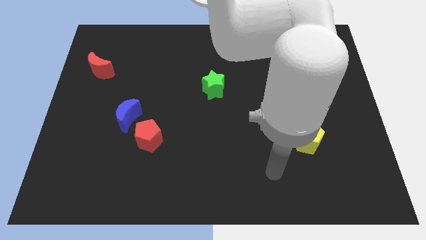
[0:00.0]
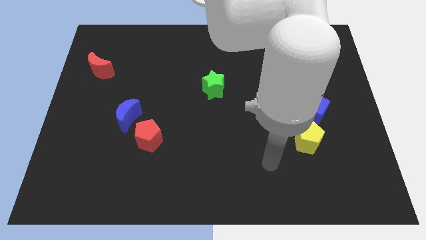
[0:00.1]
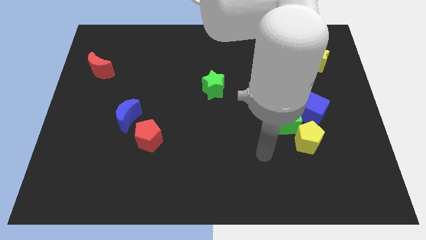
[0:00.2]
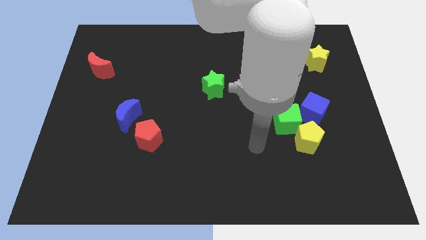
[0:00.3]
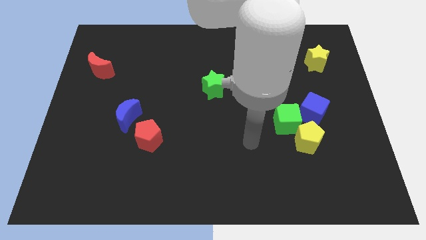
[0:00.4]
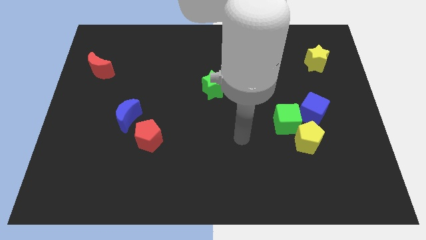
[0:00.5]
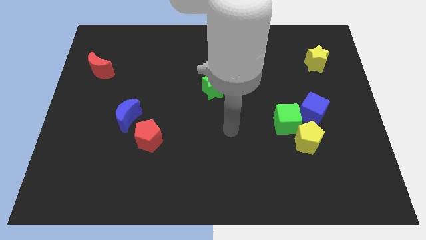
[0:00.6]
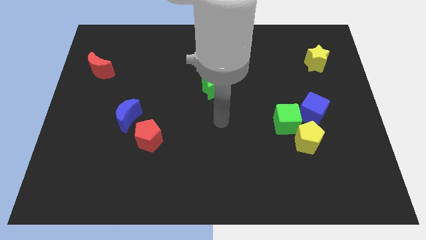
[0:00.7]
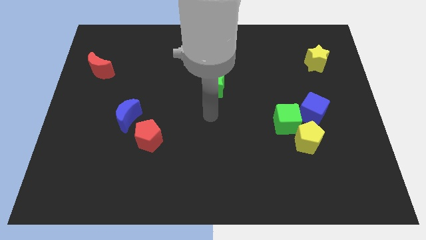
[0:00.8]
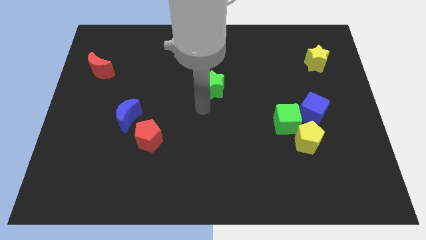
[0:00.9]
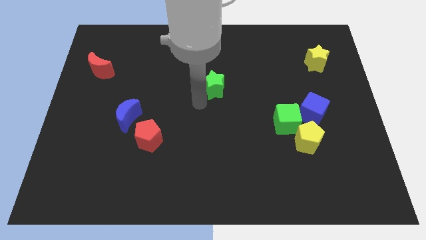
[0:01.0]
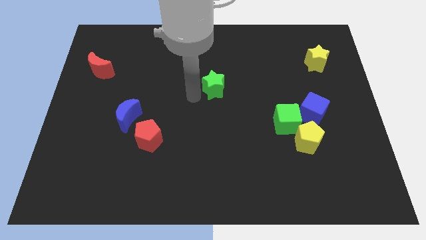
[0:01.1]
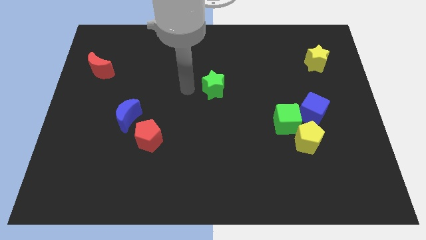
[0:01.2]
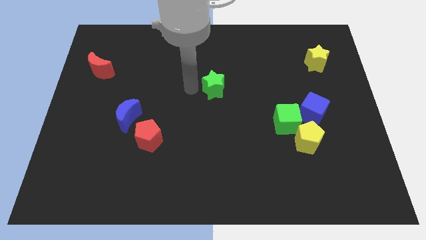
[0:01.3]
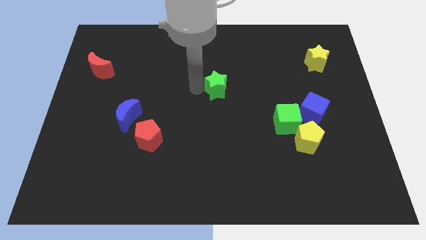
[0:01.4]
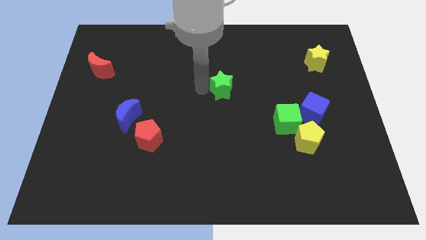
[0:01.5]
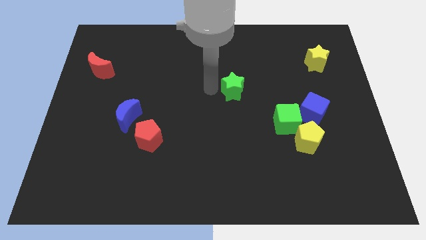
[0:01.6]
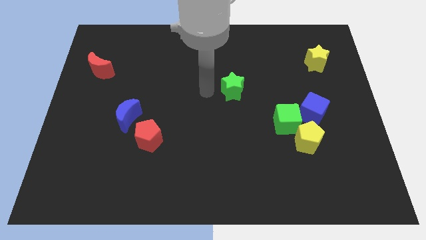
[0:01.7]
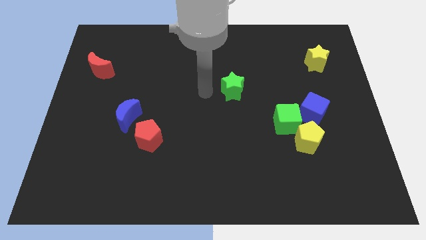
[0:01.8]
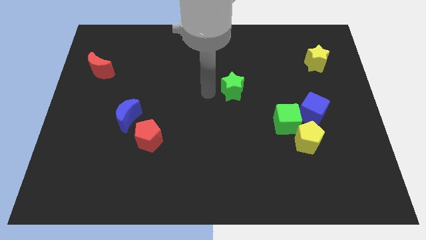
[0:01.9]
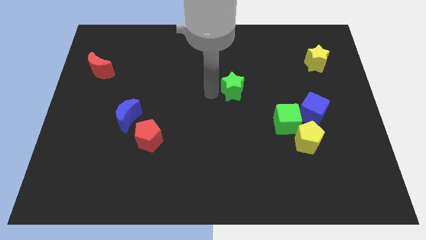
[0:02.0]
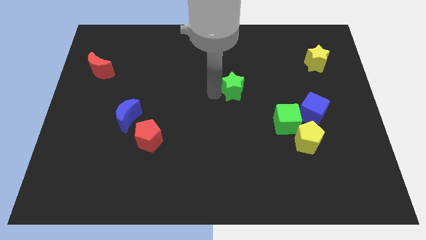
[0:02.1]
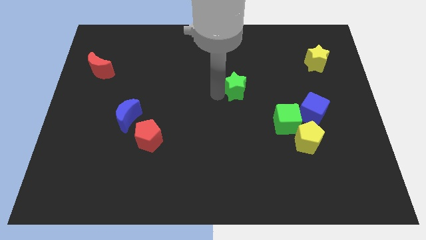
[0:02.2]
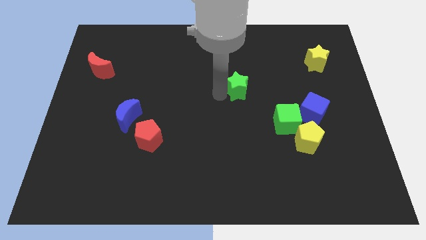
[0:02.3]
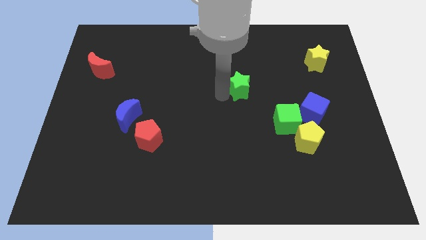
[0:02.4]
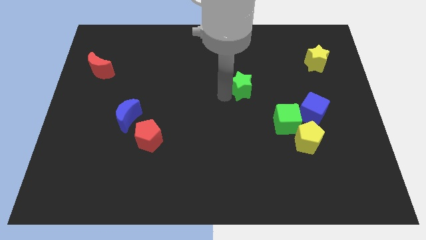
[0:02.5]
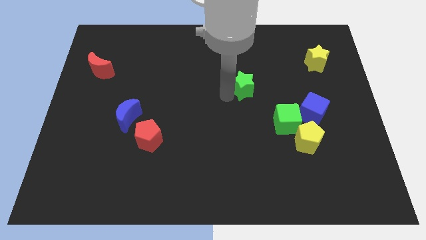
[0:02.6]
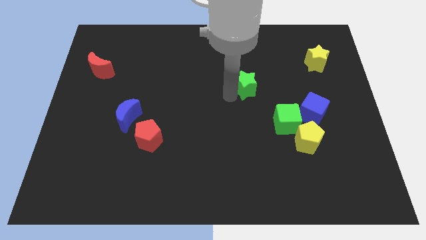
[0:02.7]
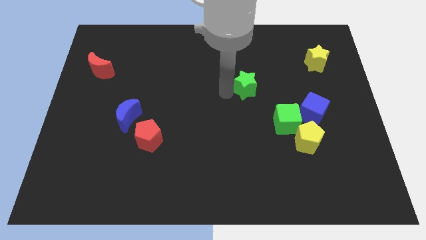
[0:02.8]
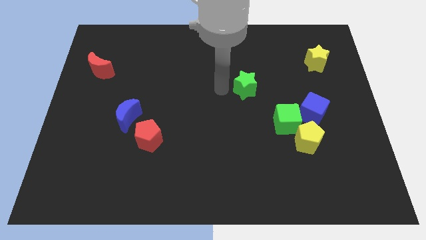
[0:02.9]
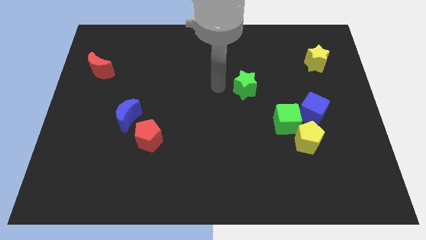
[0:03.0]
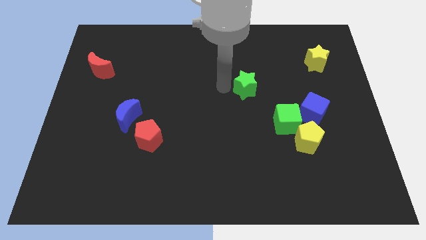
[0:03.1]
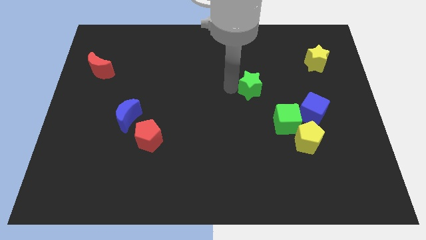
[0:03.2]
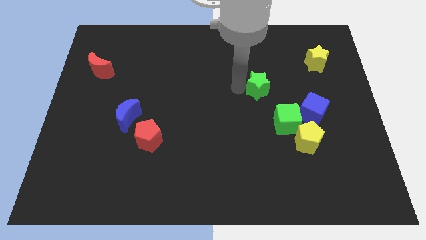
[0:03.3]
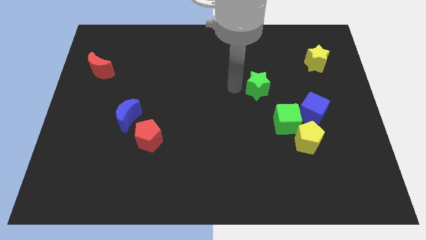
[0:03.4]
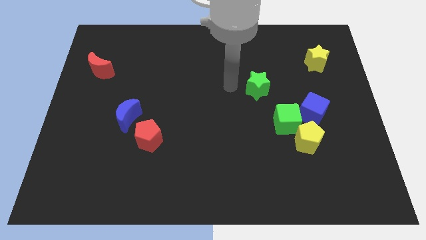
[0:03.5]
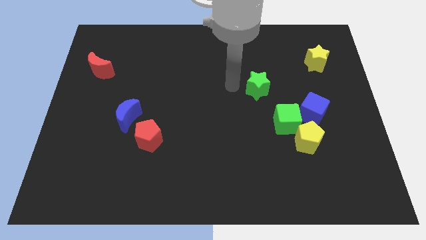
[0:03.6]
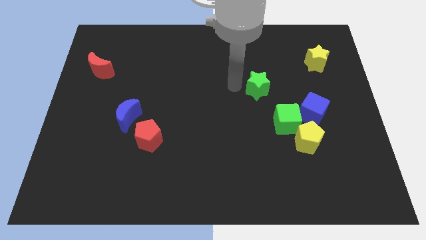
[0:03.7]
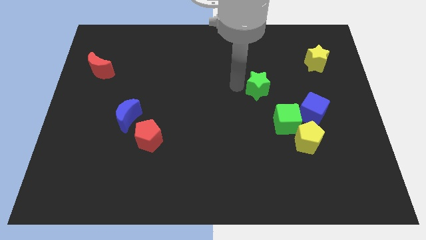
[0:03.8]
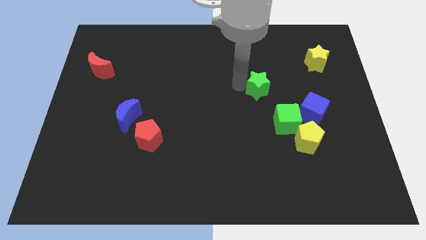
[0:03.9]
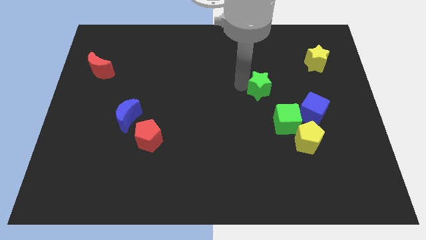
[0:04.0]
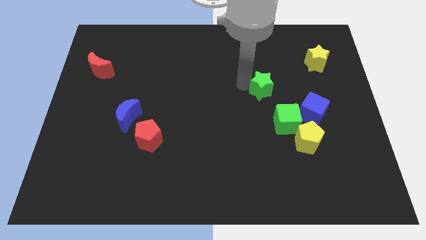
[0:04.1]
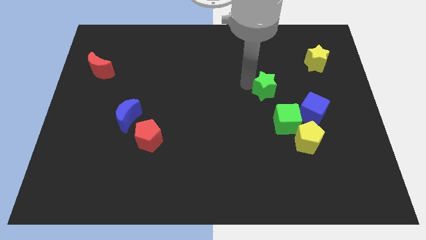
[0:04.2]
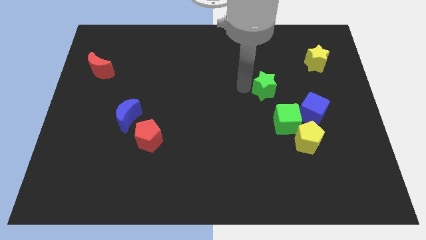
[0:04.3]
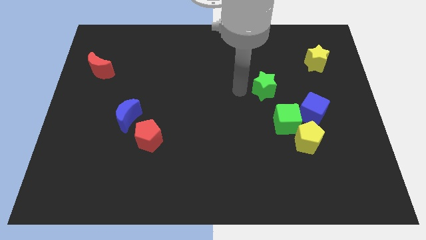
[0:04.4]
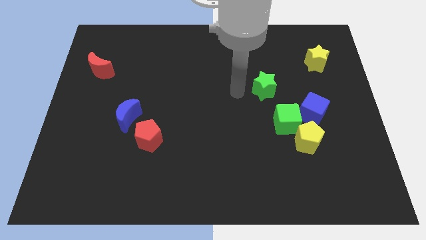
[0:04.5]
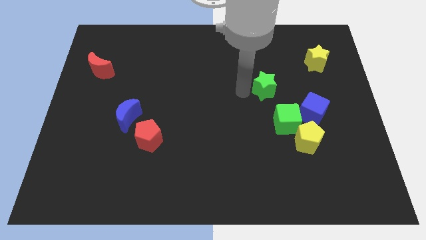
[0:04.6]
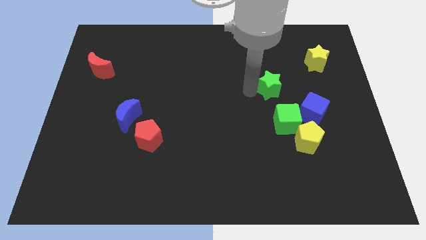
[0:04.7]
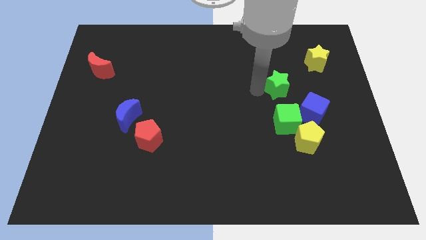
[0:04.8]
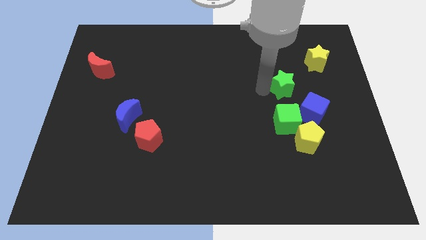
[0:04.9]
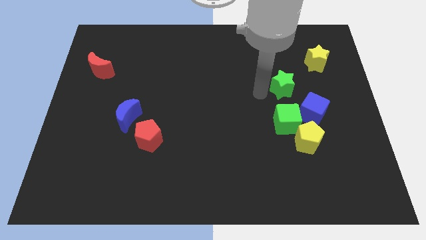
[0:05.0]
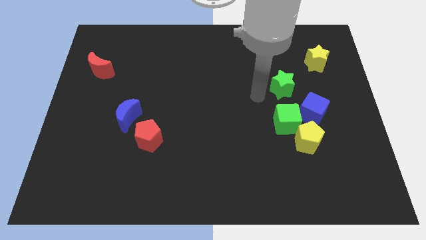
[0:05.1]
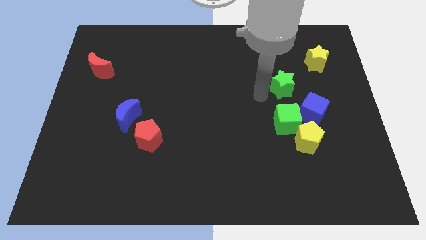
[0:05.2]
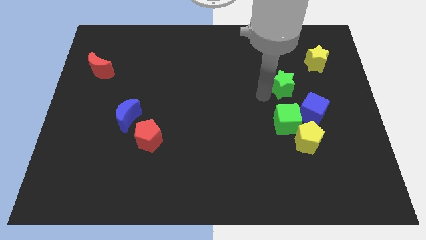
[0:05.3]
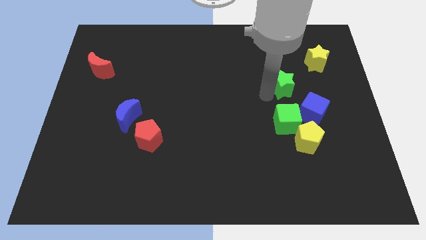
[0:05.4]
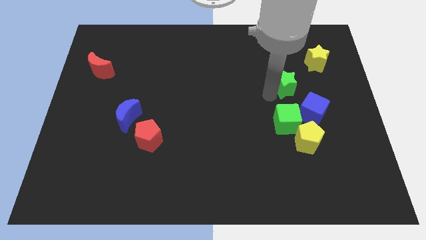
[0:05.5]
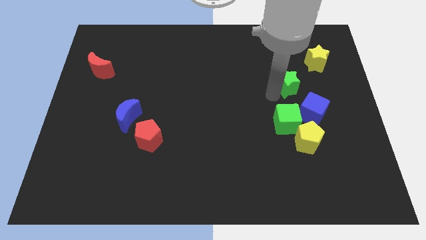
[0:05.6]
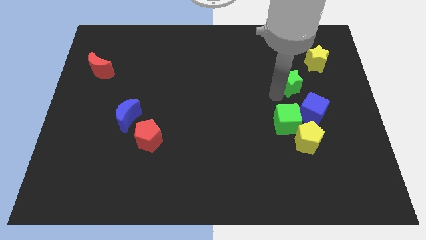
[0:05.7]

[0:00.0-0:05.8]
put the green star to the top side of the blue cube

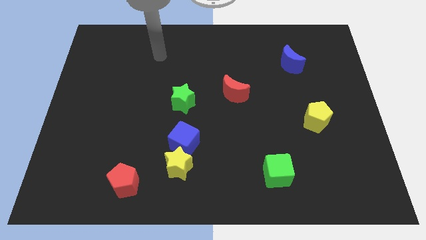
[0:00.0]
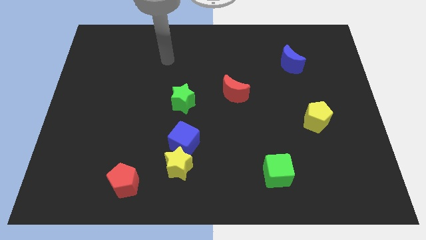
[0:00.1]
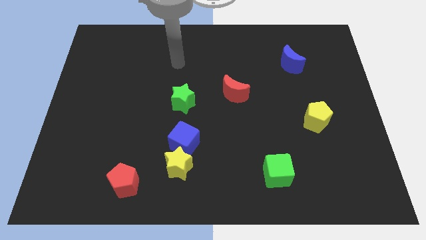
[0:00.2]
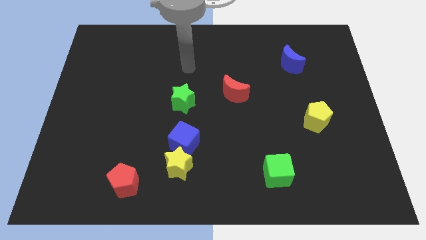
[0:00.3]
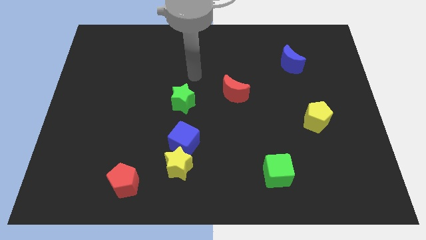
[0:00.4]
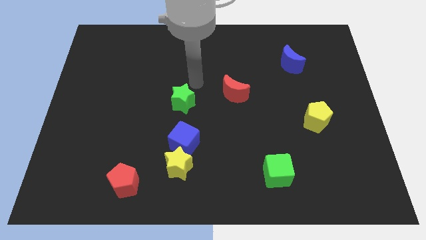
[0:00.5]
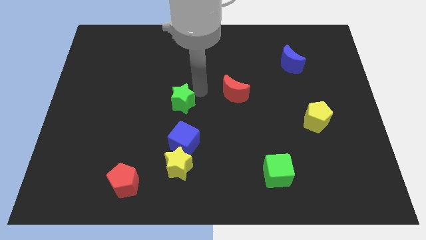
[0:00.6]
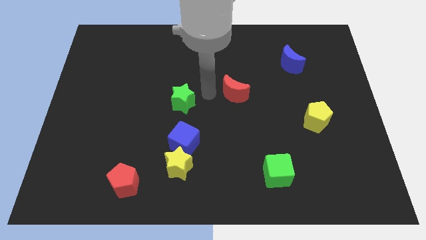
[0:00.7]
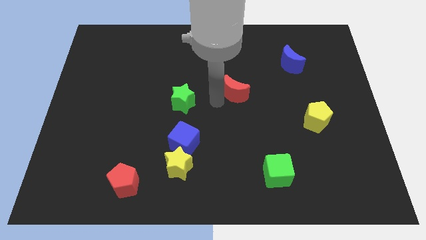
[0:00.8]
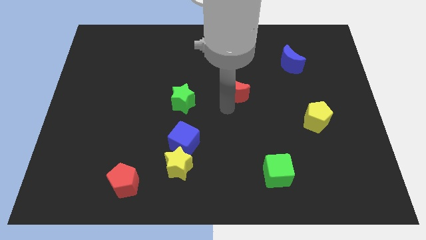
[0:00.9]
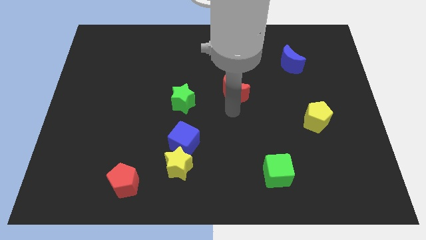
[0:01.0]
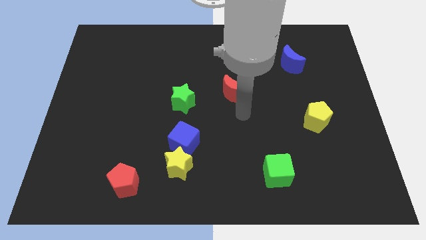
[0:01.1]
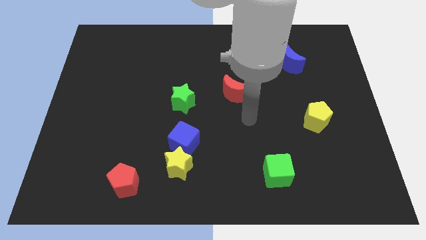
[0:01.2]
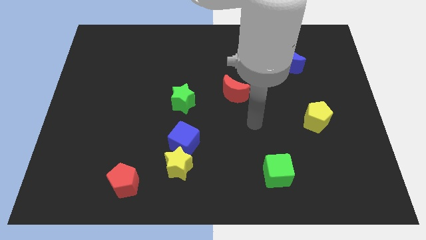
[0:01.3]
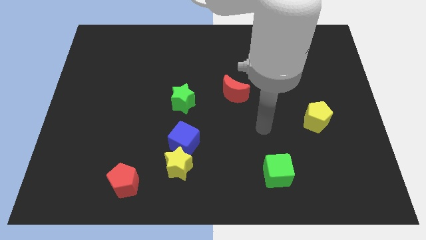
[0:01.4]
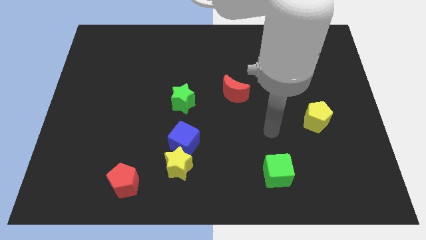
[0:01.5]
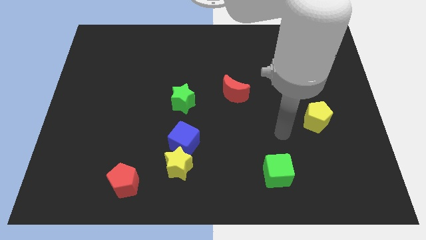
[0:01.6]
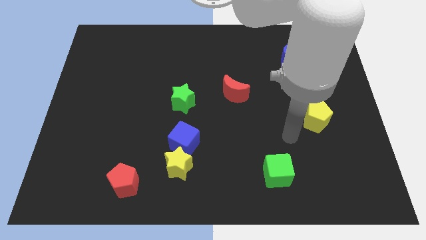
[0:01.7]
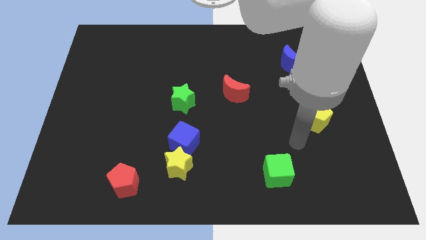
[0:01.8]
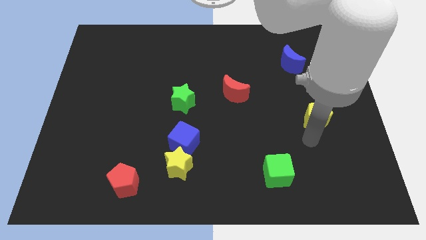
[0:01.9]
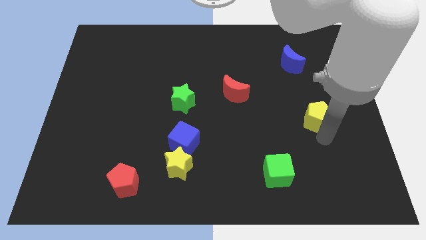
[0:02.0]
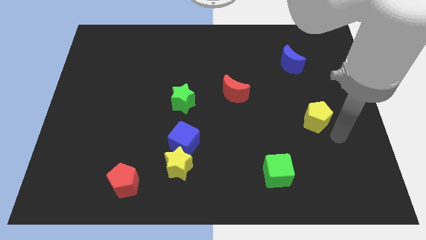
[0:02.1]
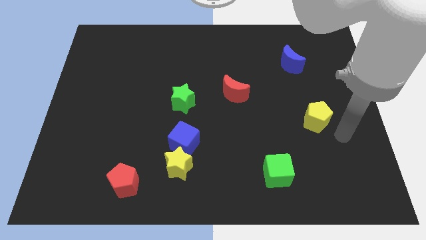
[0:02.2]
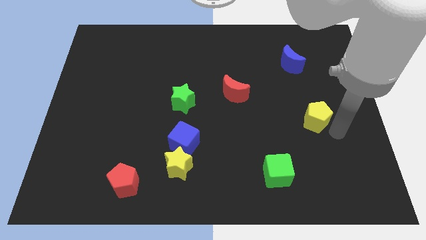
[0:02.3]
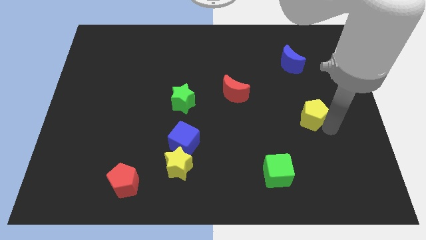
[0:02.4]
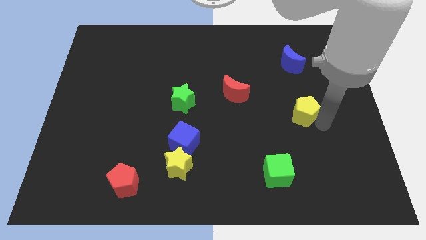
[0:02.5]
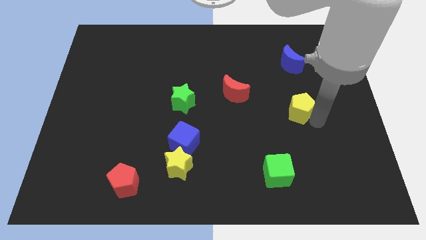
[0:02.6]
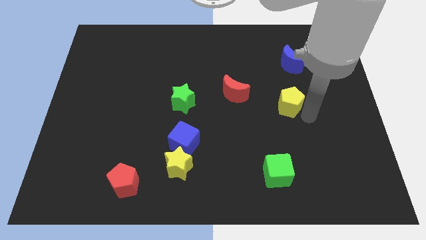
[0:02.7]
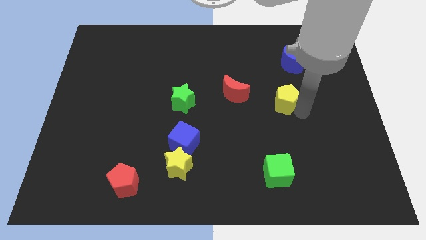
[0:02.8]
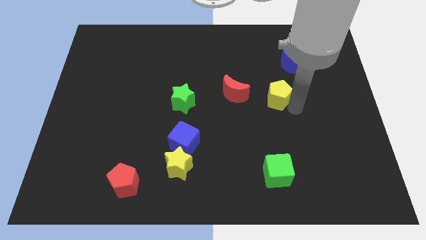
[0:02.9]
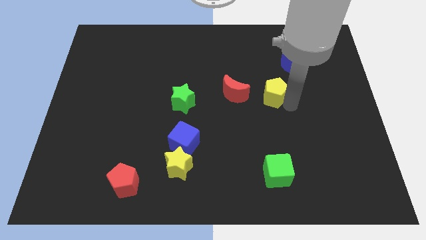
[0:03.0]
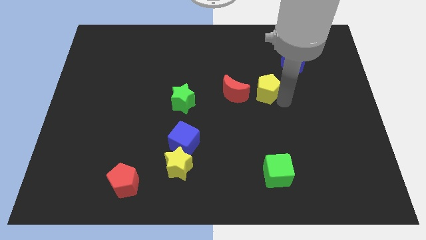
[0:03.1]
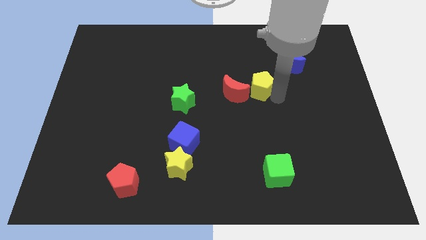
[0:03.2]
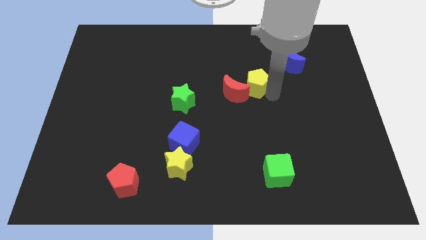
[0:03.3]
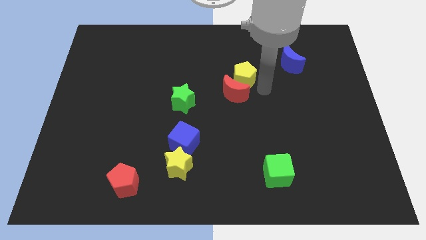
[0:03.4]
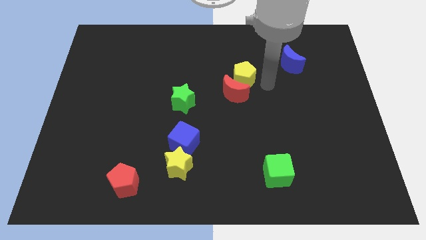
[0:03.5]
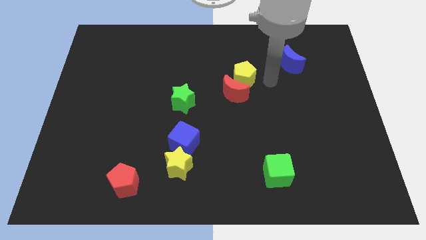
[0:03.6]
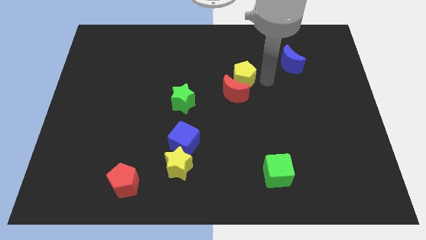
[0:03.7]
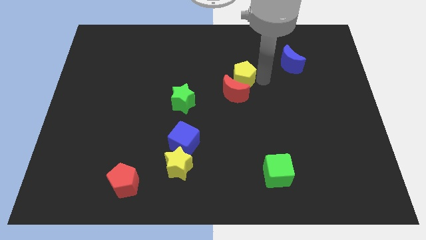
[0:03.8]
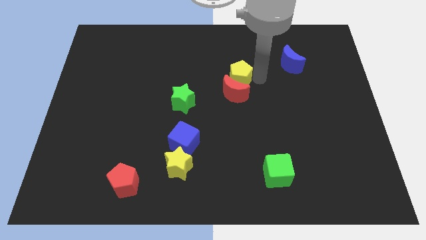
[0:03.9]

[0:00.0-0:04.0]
push the yellow pentagon diagonally up and to the left of the red moon
